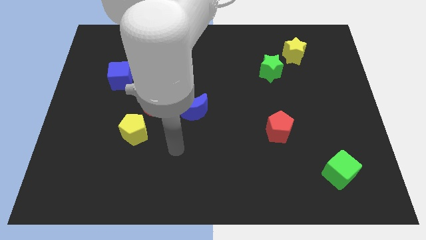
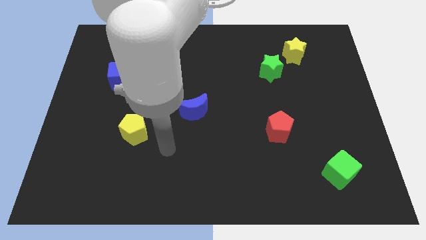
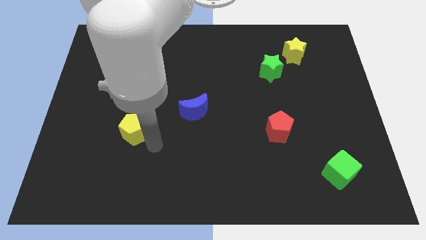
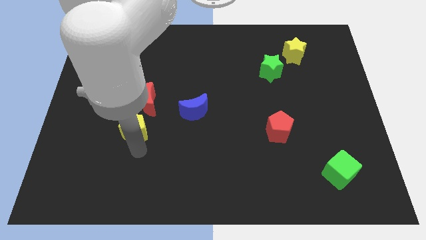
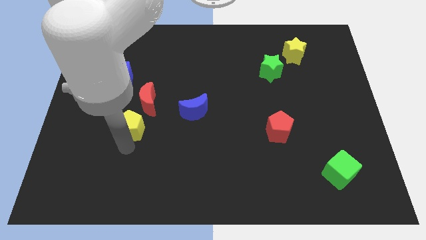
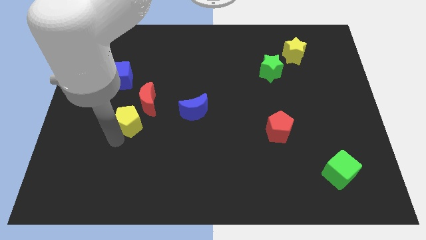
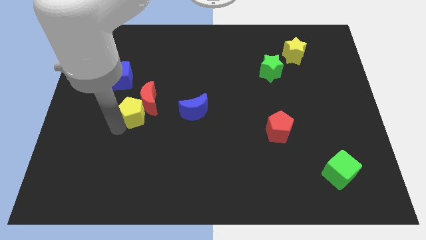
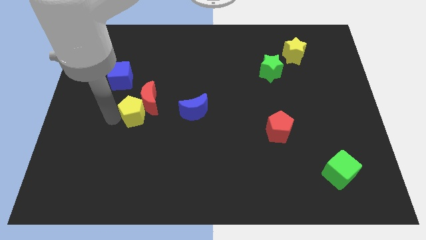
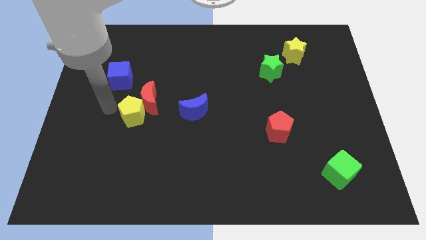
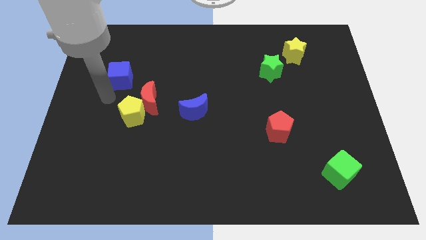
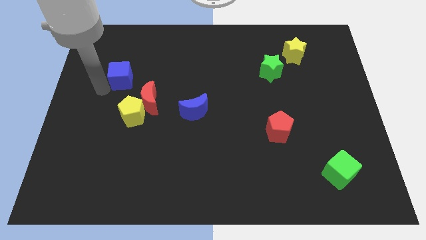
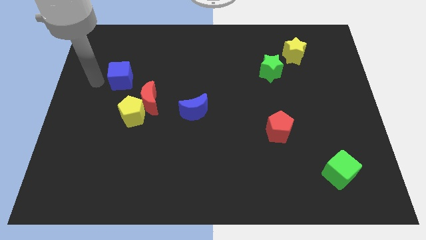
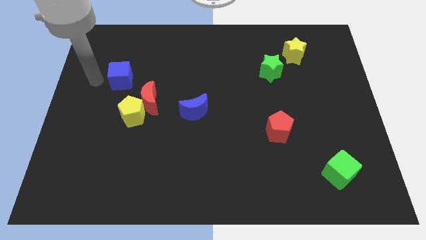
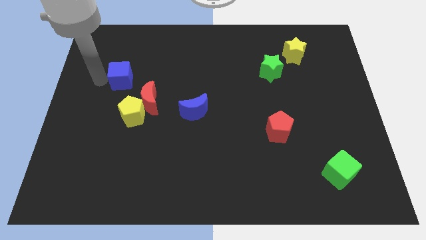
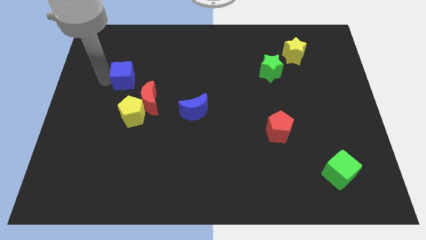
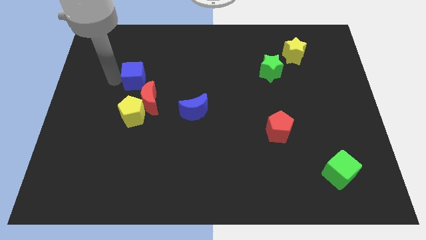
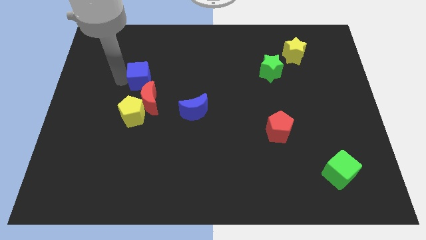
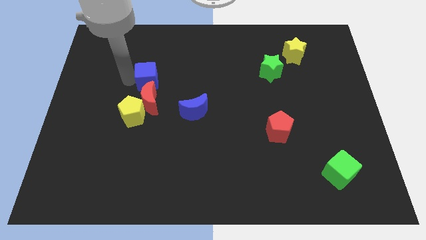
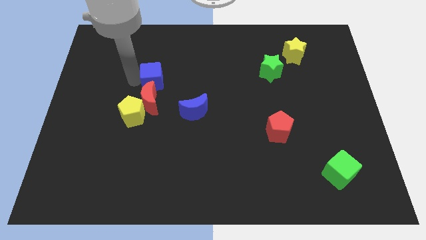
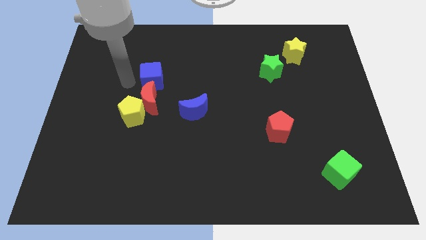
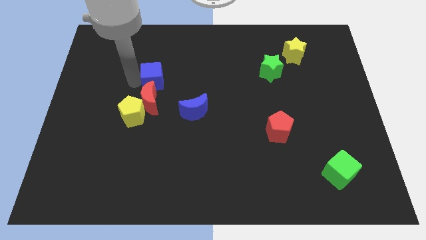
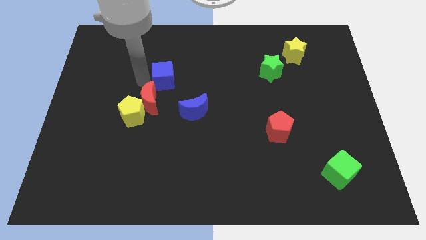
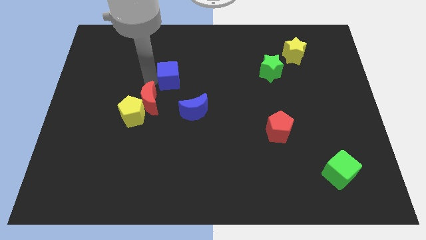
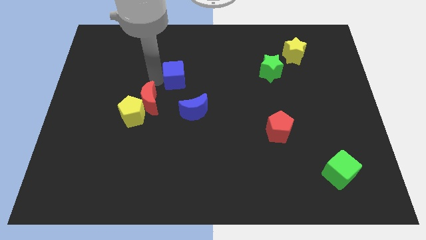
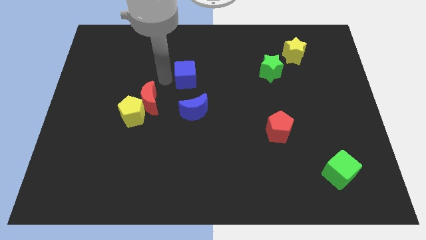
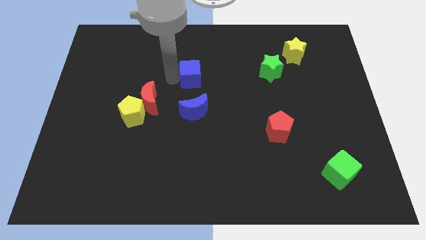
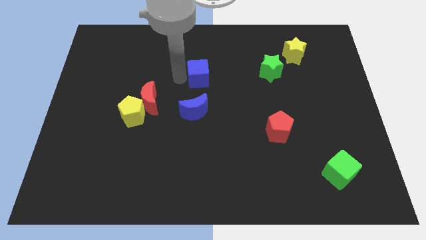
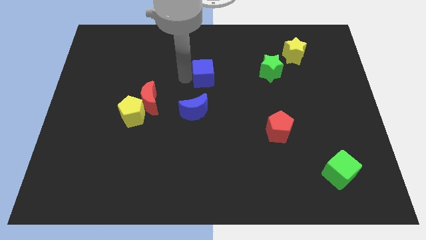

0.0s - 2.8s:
slide the blue cube right

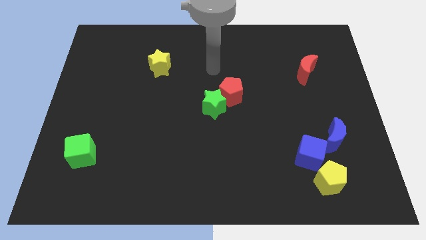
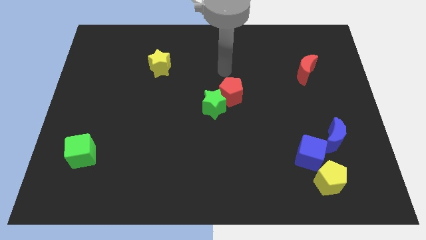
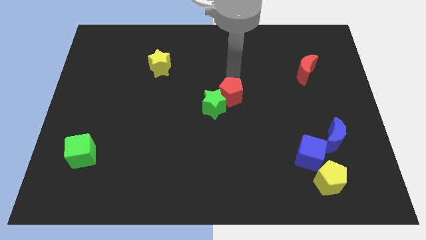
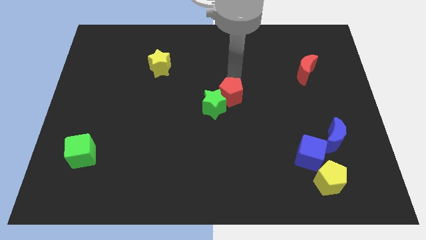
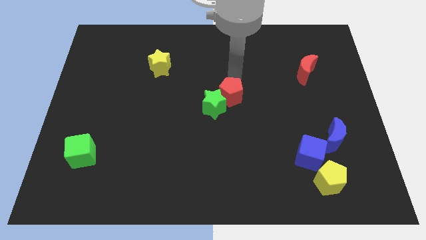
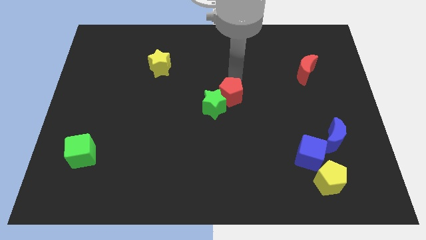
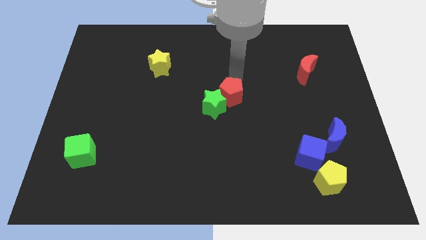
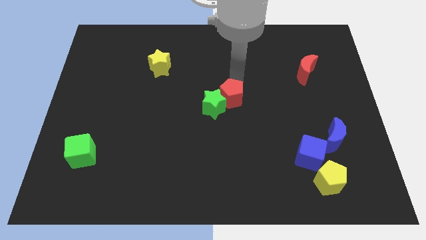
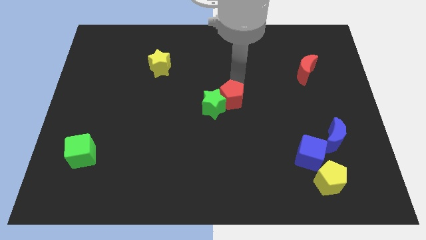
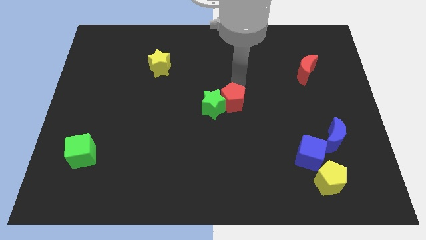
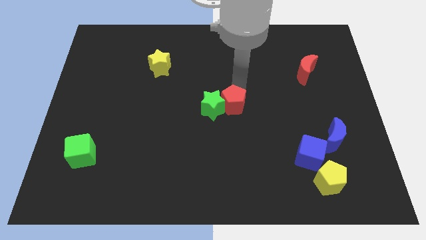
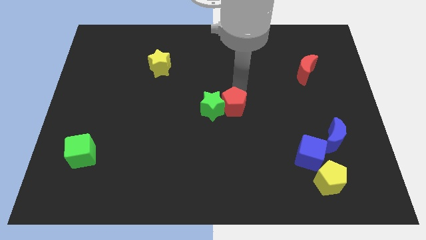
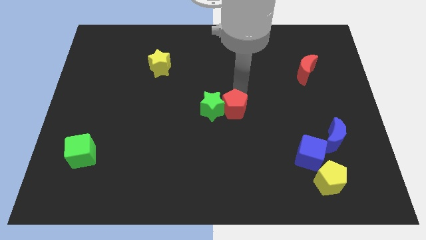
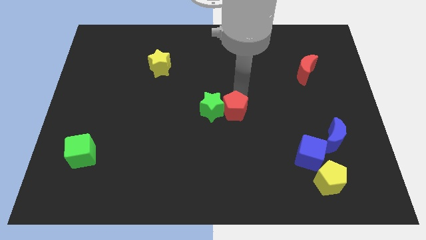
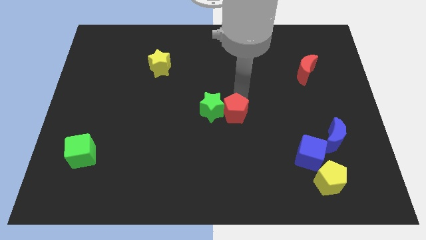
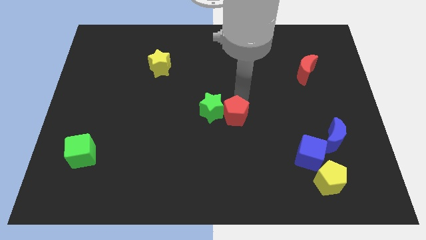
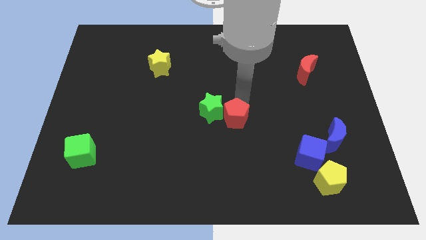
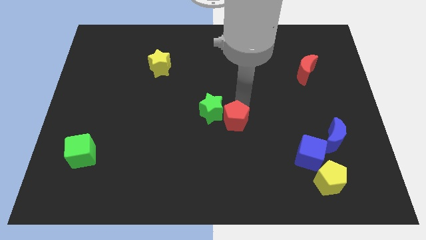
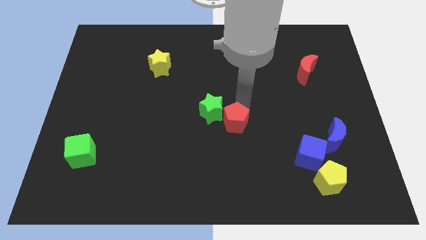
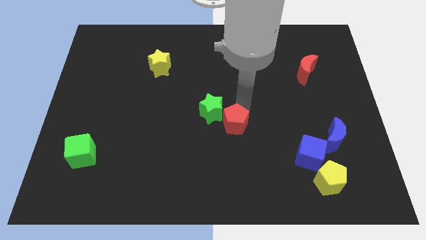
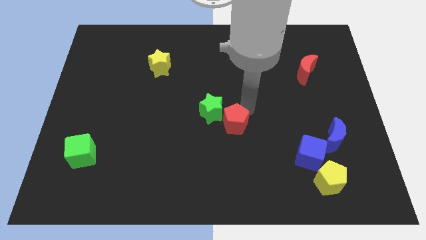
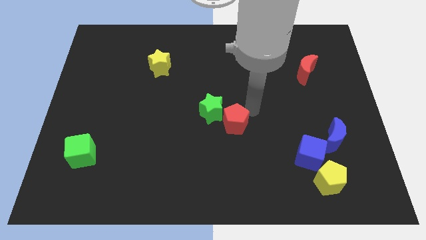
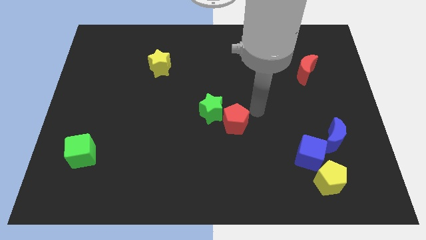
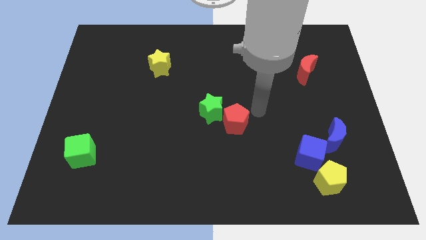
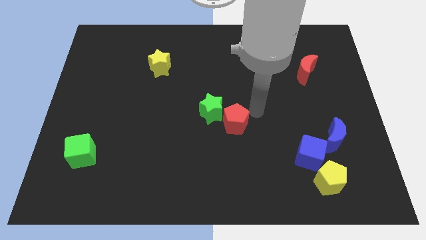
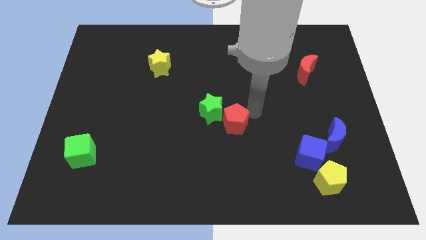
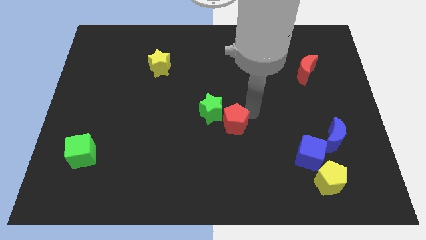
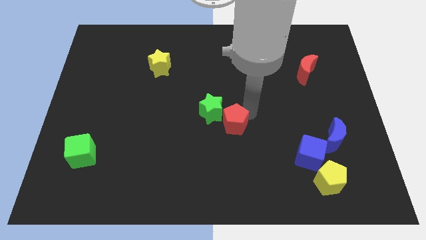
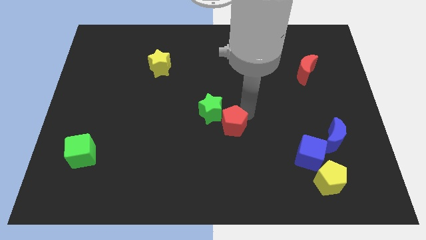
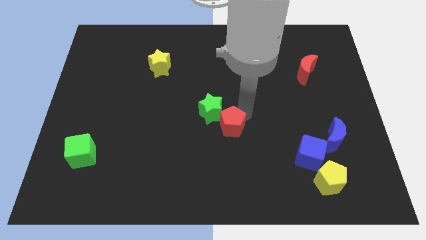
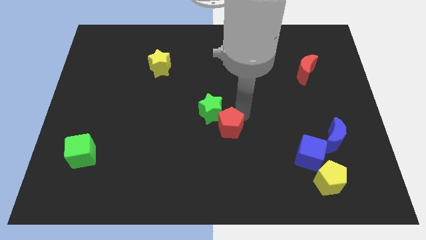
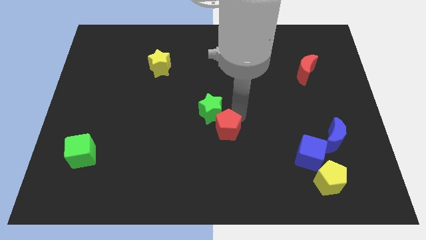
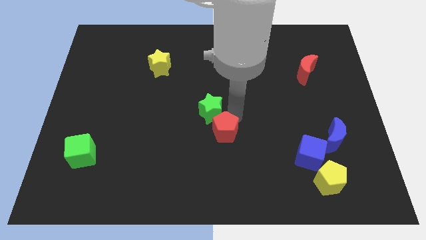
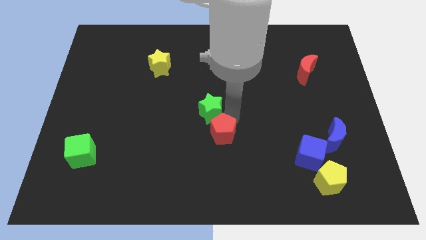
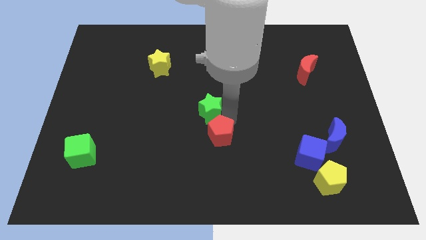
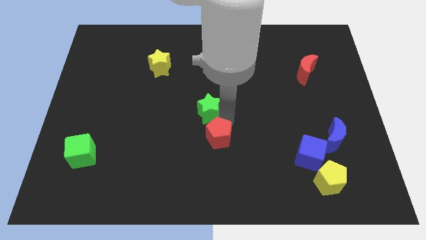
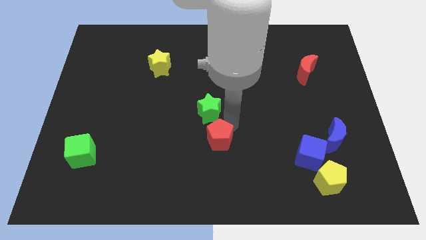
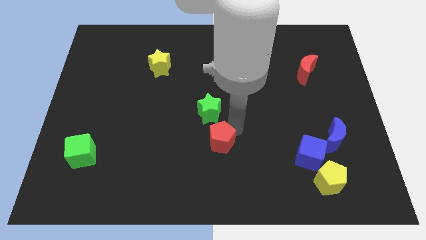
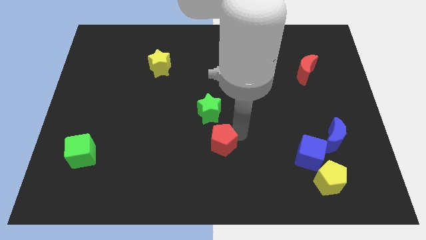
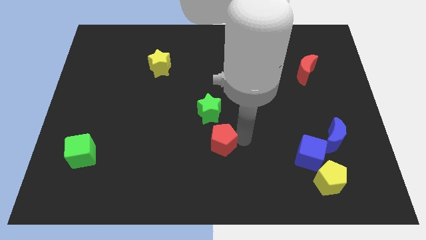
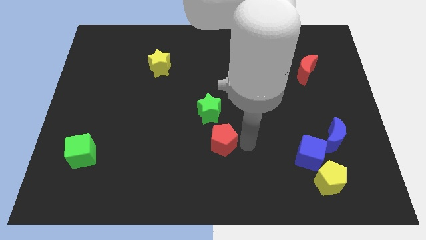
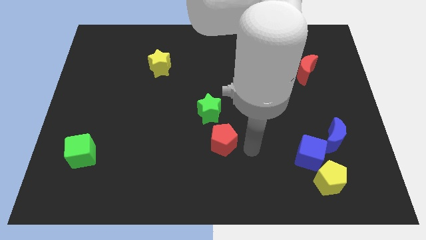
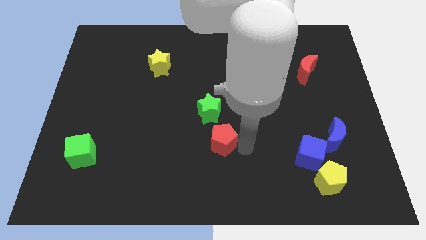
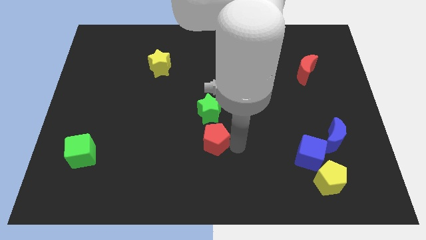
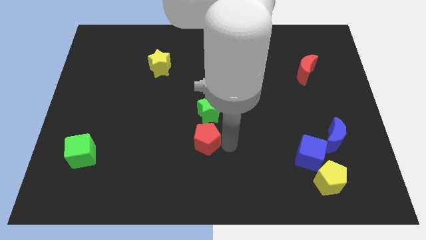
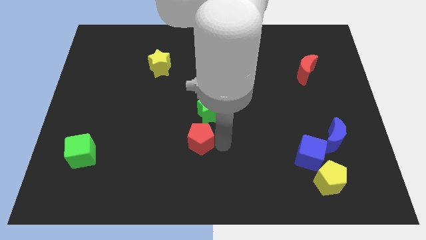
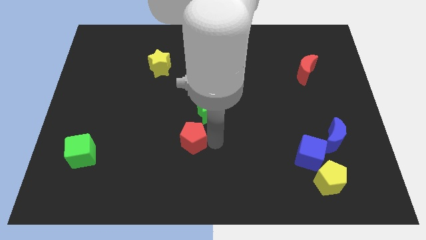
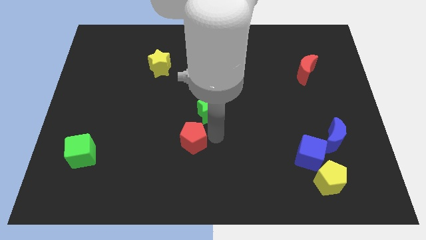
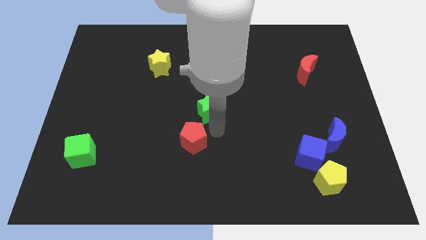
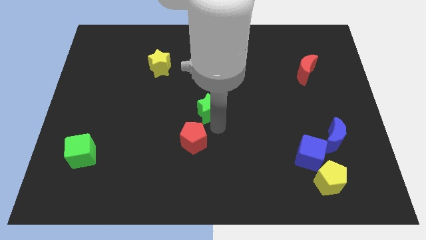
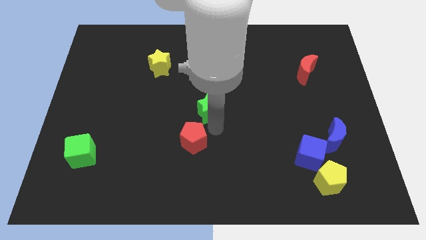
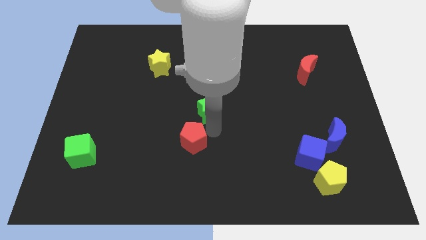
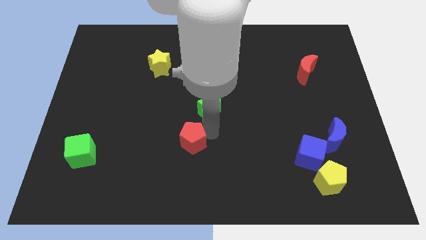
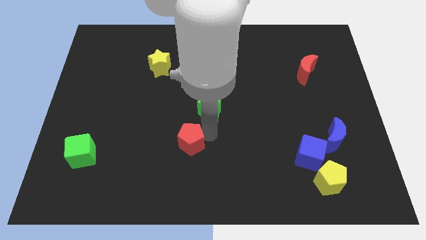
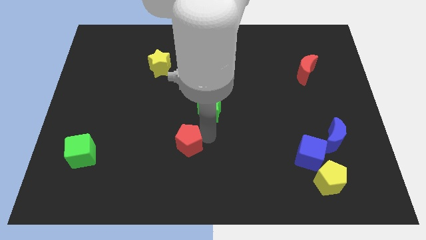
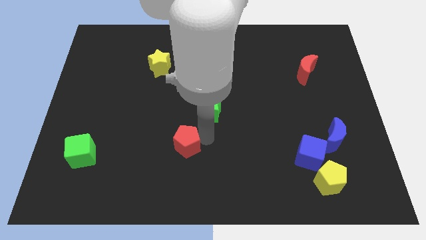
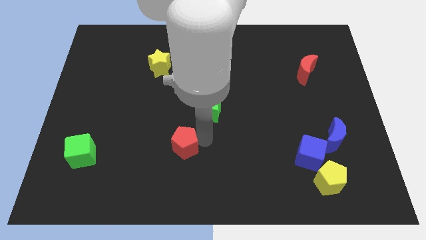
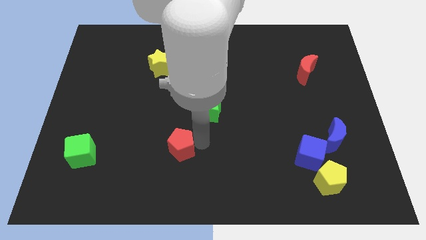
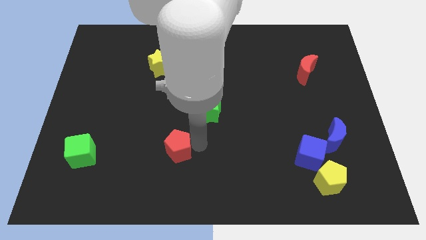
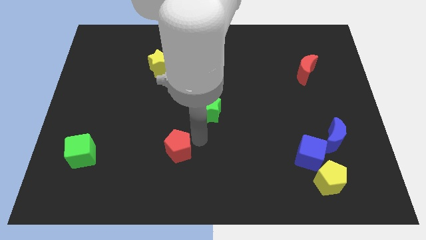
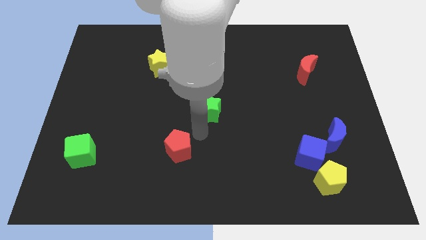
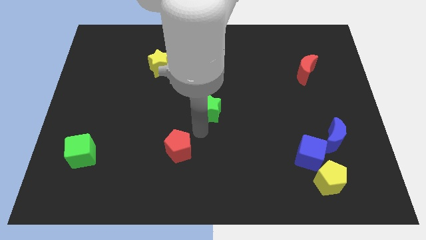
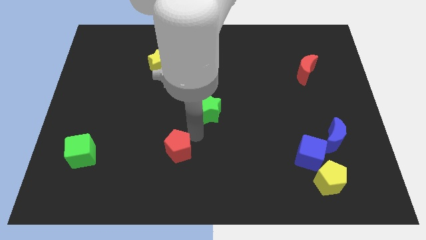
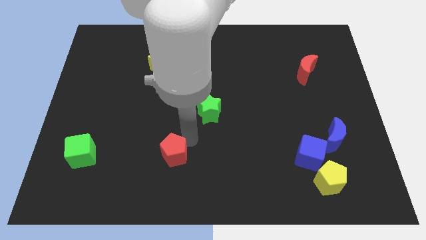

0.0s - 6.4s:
push the red pentagon downwards and to the left
